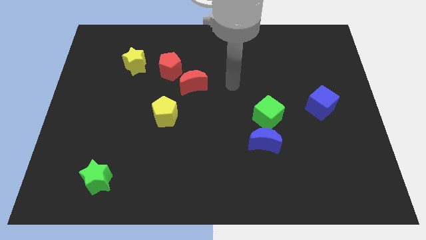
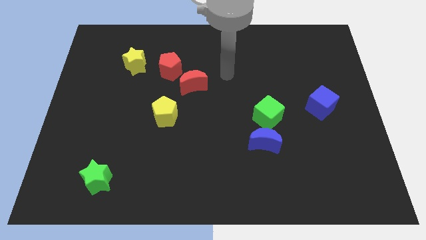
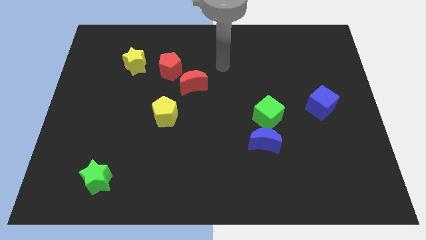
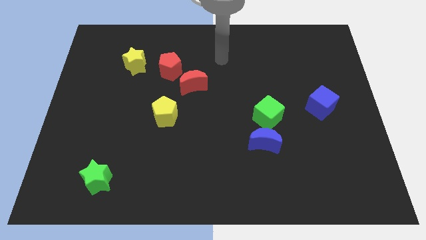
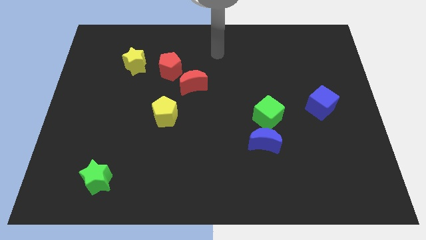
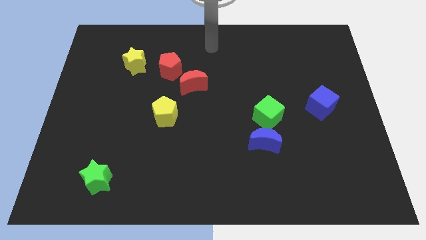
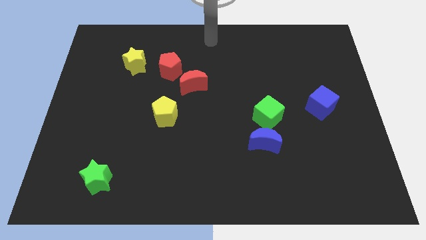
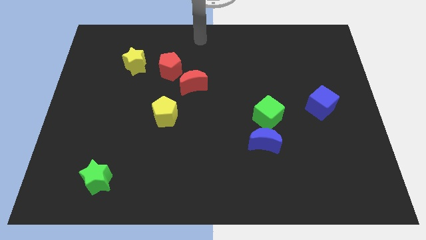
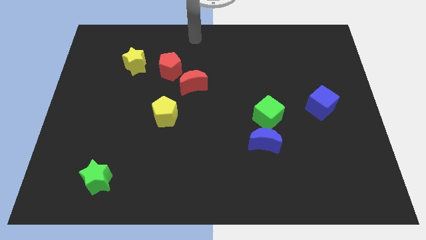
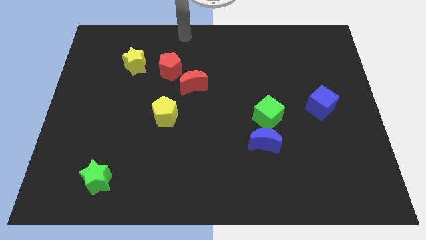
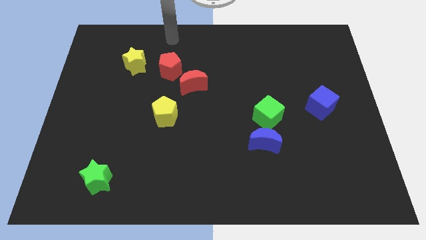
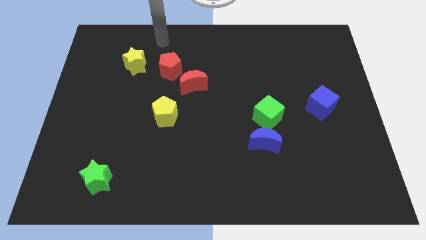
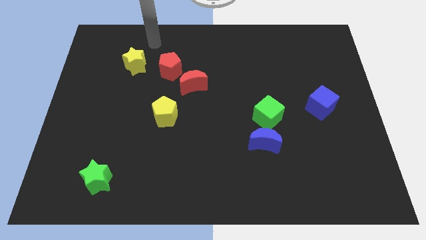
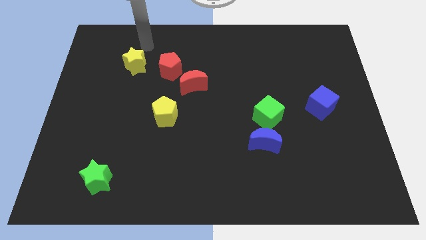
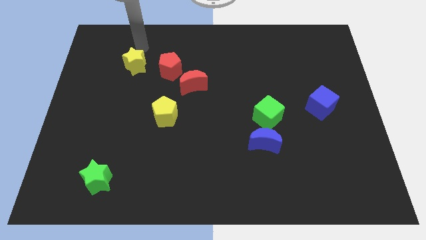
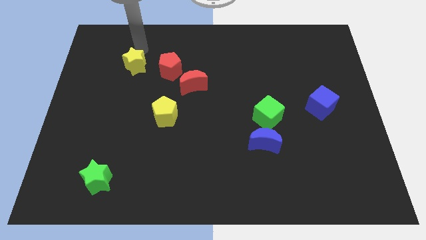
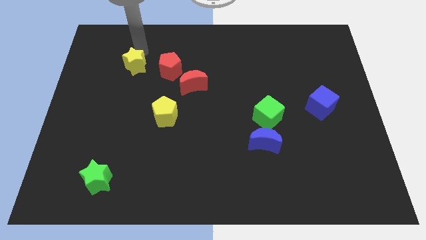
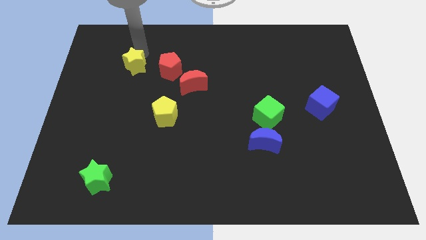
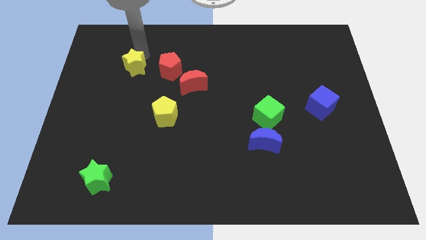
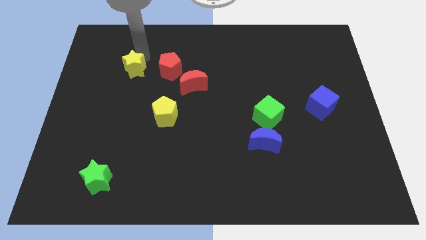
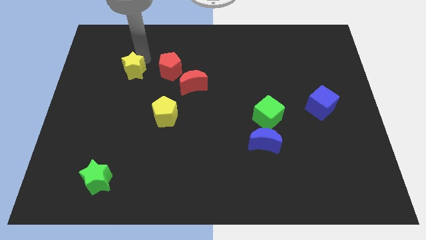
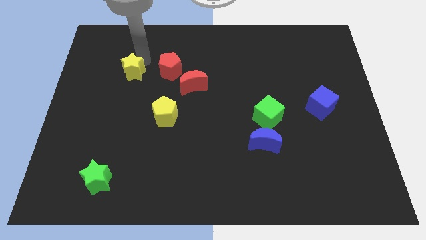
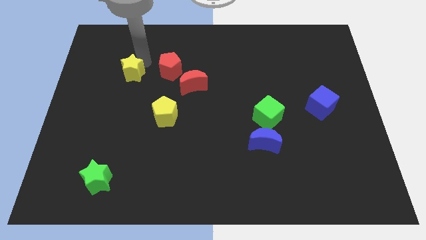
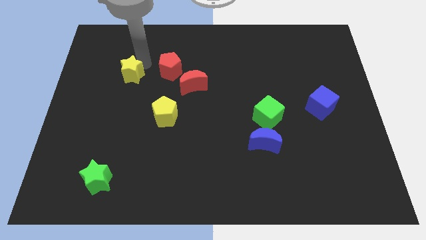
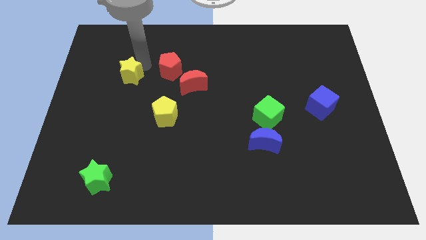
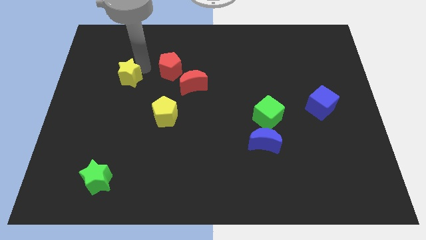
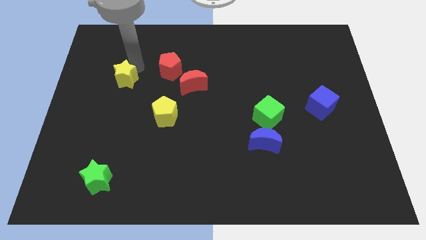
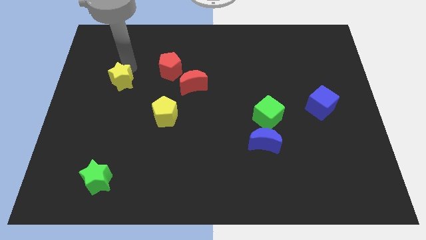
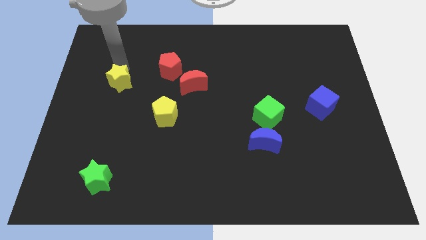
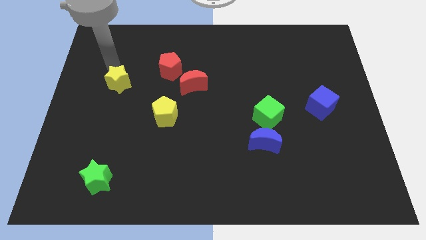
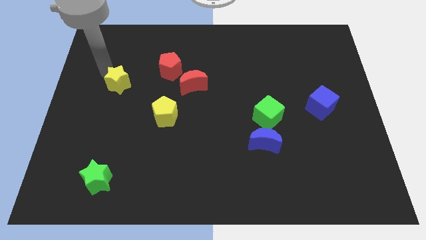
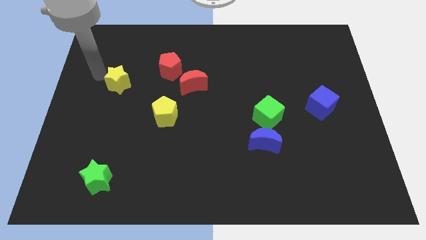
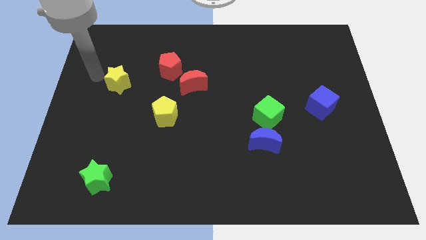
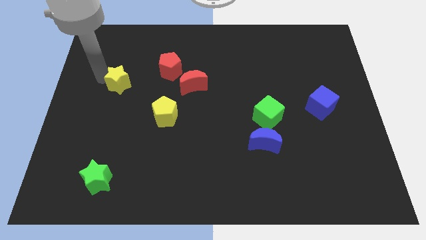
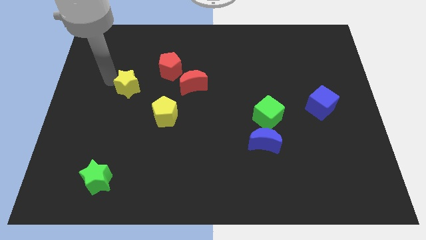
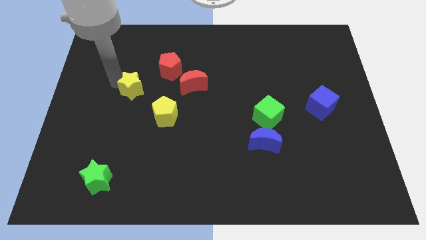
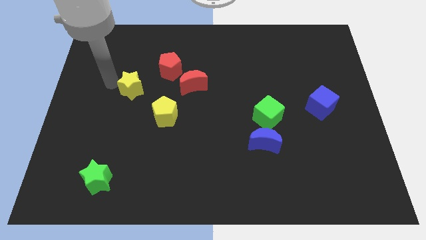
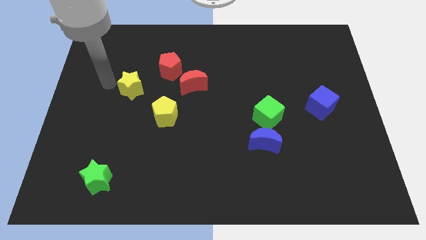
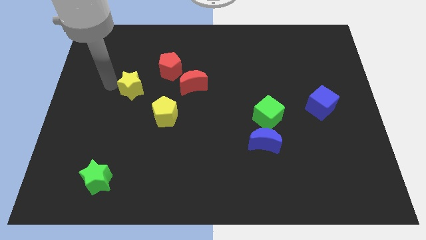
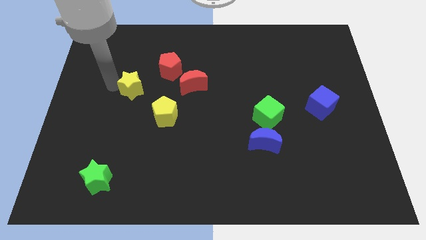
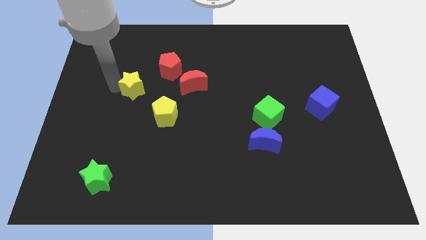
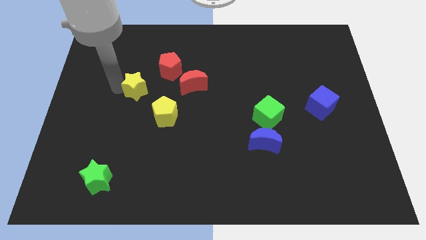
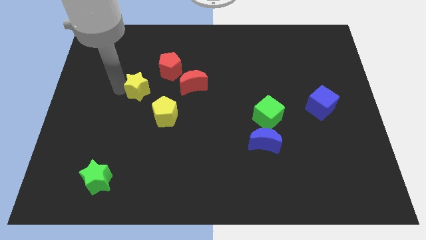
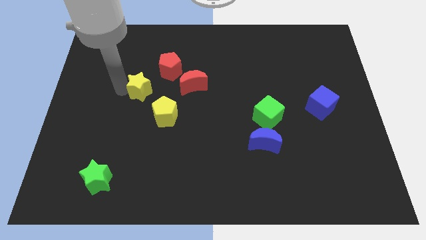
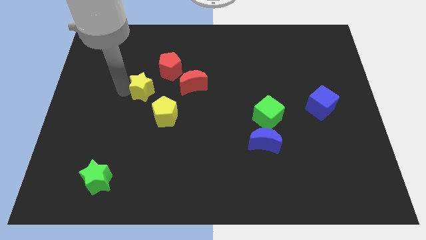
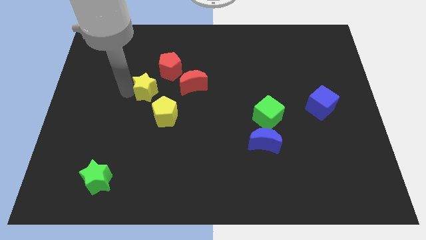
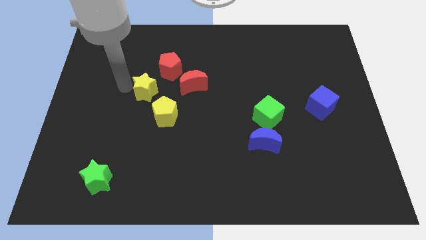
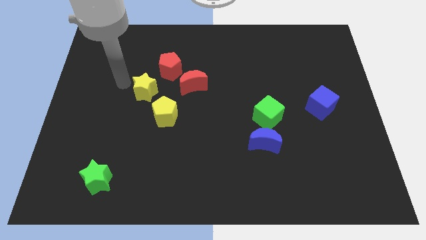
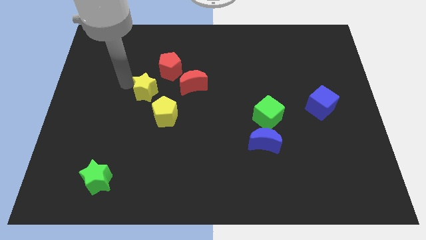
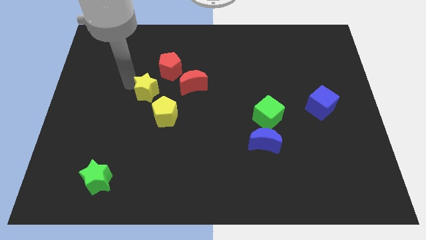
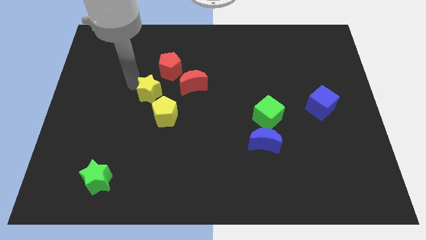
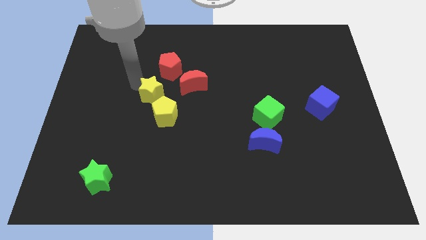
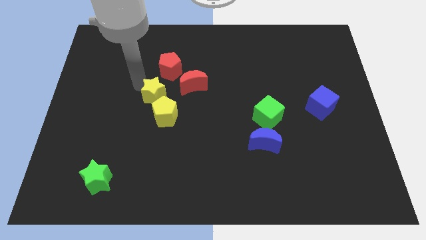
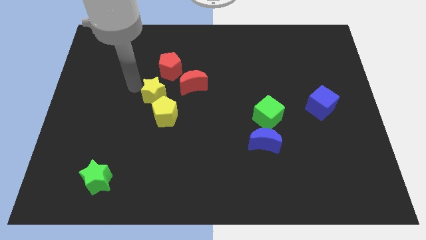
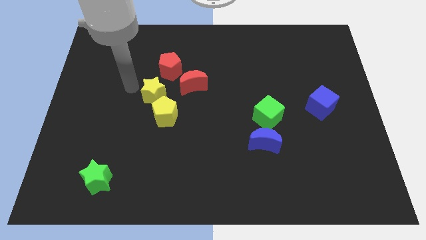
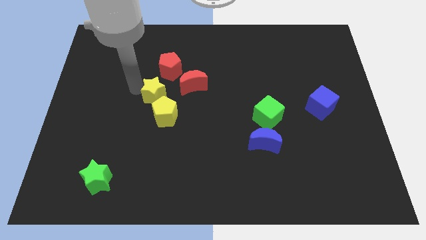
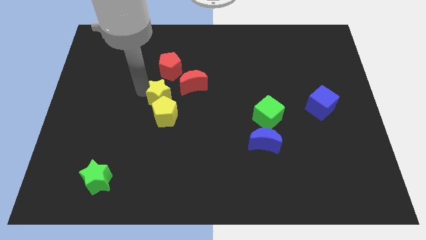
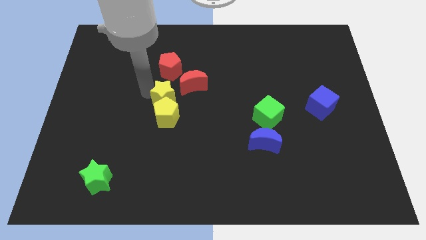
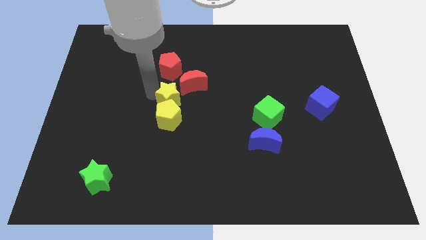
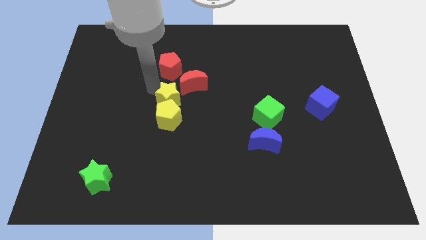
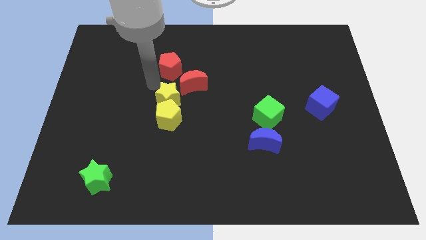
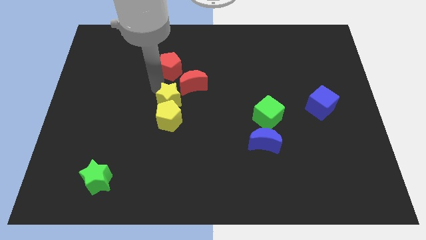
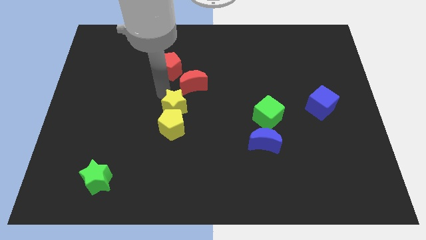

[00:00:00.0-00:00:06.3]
push the yellow star to the bottom of the red moon
